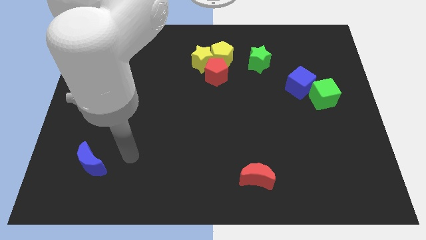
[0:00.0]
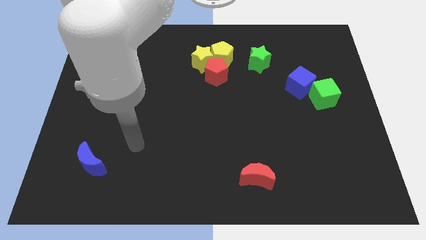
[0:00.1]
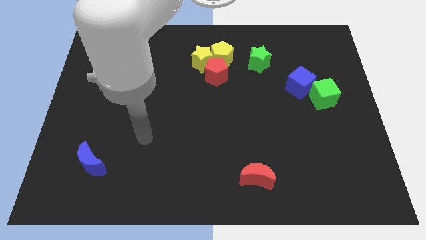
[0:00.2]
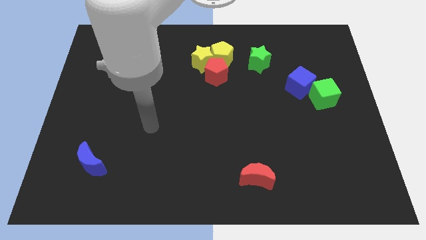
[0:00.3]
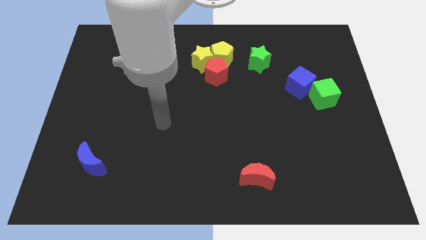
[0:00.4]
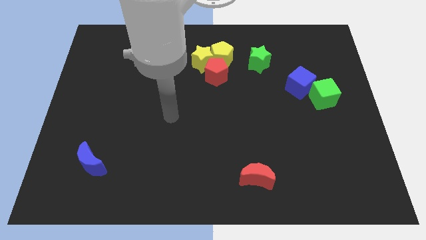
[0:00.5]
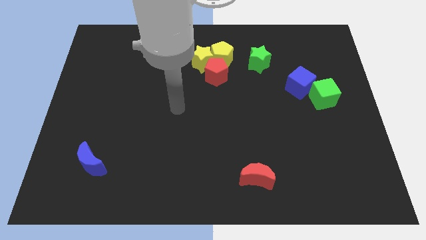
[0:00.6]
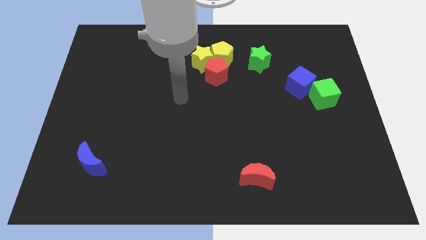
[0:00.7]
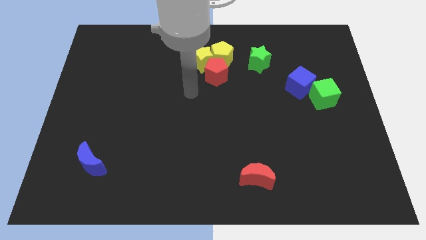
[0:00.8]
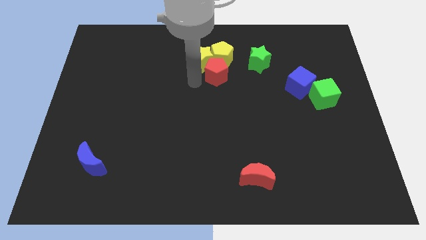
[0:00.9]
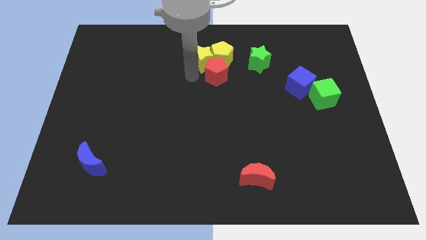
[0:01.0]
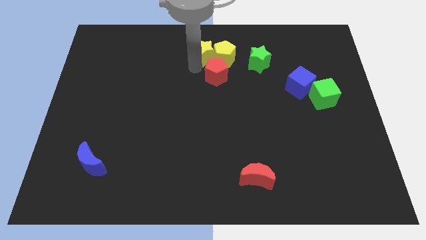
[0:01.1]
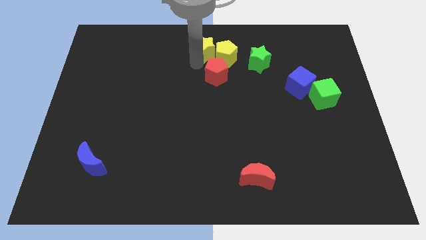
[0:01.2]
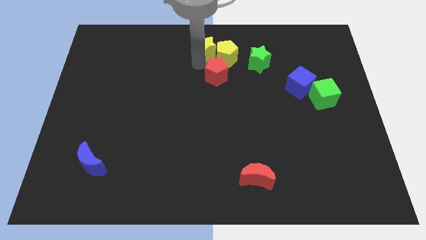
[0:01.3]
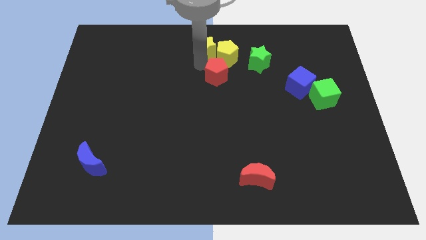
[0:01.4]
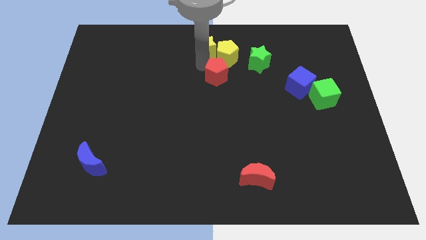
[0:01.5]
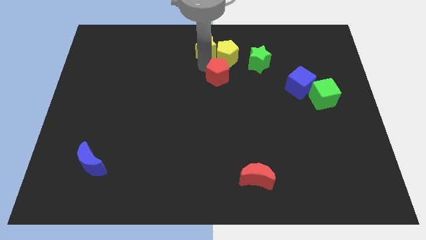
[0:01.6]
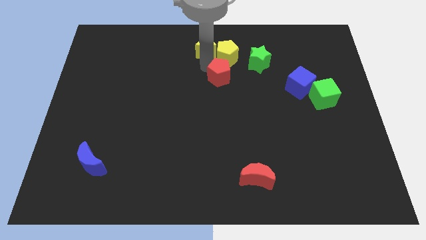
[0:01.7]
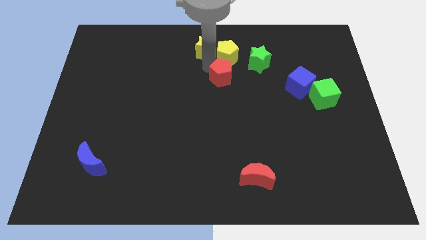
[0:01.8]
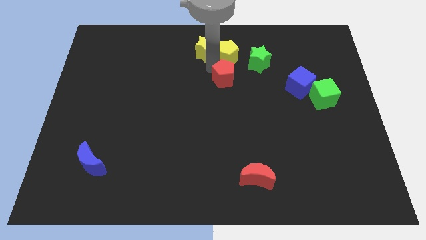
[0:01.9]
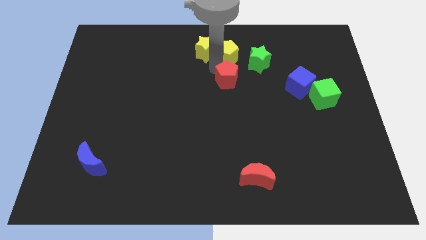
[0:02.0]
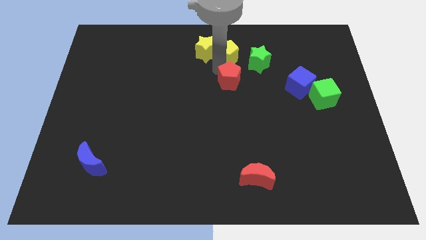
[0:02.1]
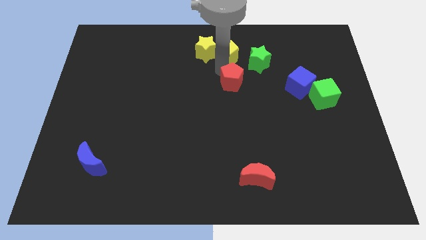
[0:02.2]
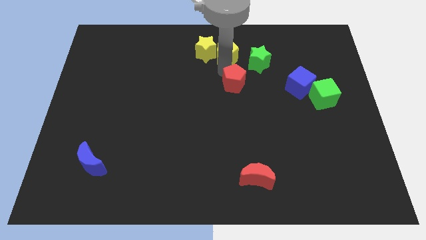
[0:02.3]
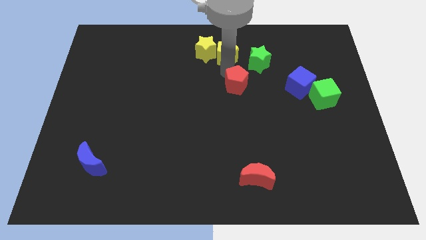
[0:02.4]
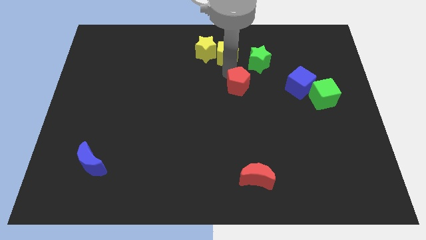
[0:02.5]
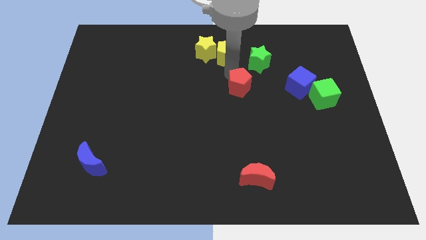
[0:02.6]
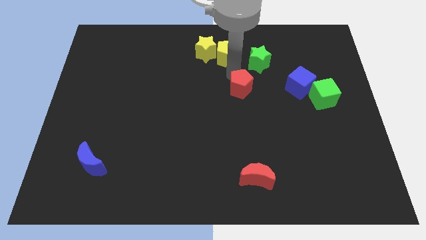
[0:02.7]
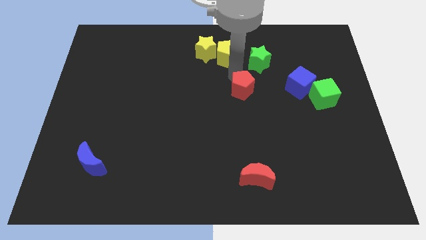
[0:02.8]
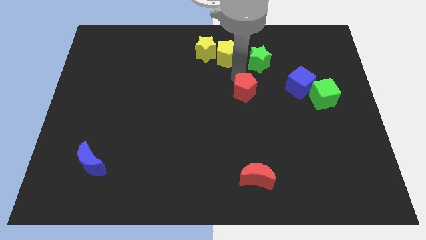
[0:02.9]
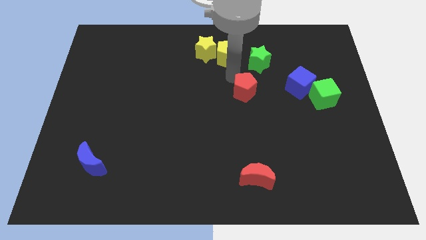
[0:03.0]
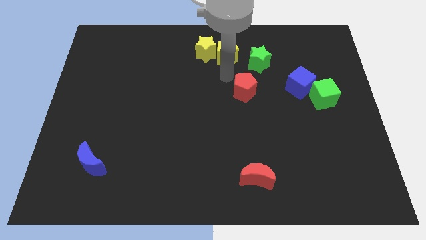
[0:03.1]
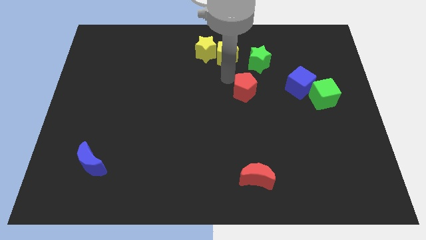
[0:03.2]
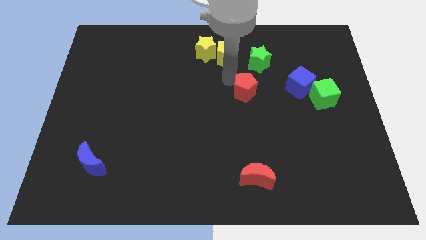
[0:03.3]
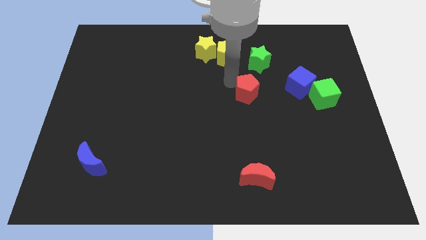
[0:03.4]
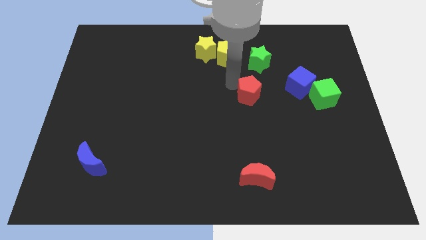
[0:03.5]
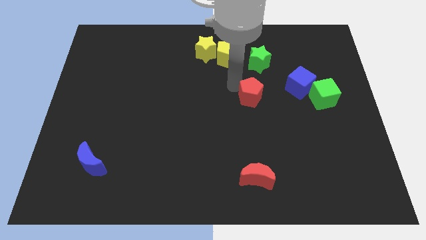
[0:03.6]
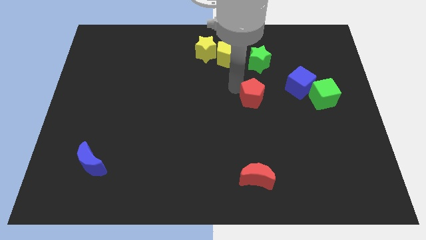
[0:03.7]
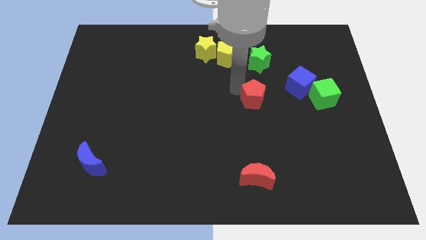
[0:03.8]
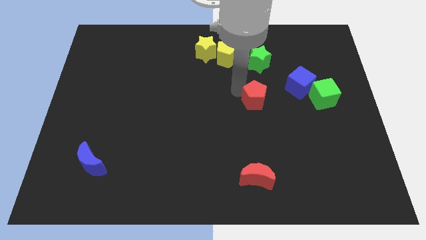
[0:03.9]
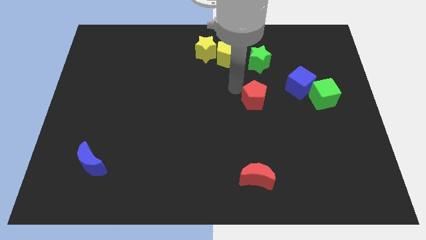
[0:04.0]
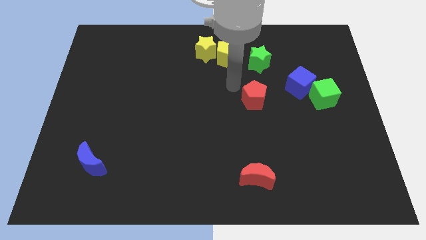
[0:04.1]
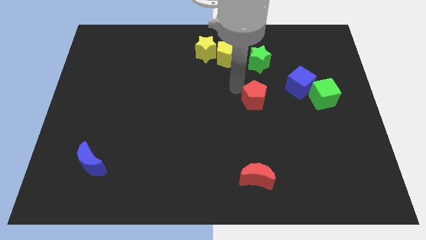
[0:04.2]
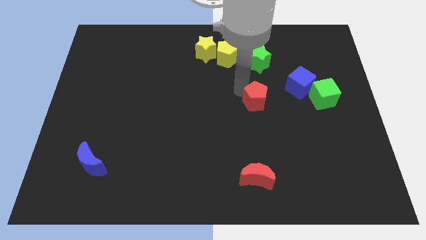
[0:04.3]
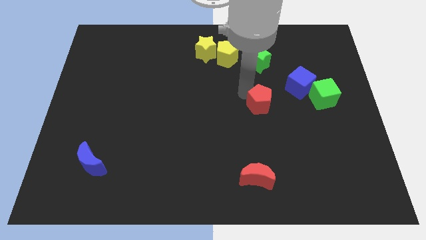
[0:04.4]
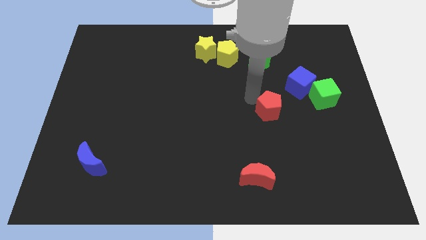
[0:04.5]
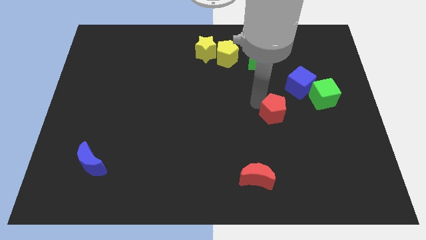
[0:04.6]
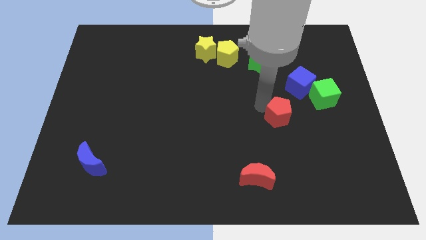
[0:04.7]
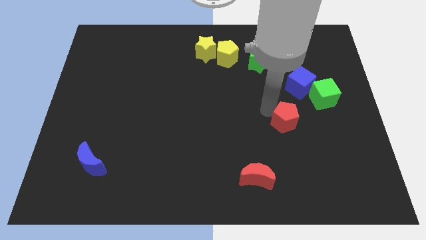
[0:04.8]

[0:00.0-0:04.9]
move the red pentagon below the blue cube

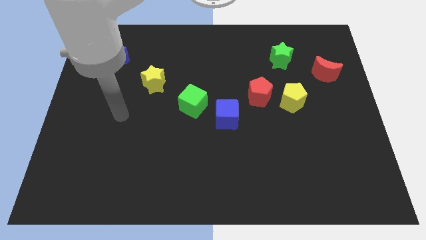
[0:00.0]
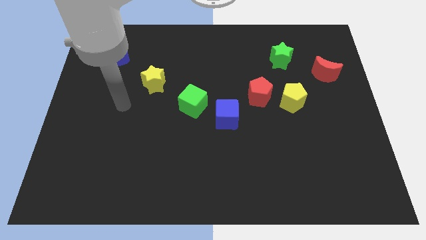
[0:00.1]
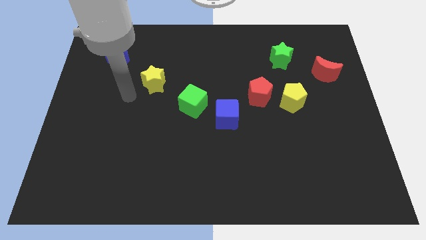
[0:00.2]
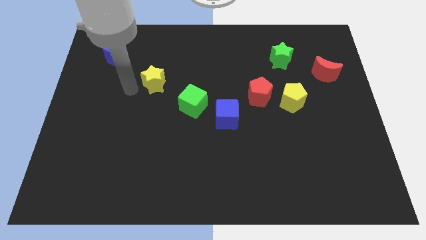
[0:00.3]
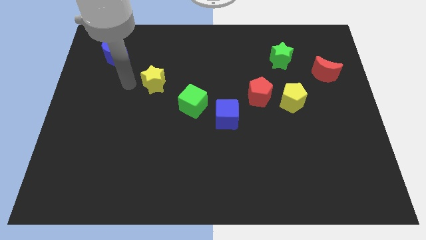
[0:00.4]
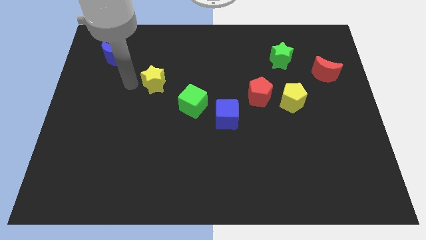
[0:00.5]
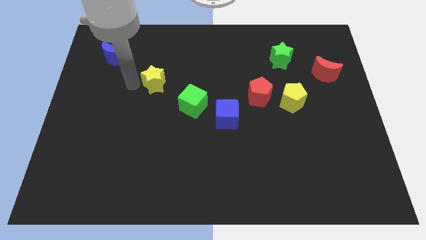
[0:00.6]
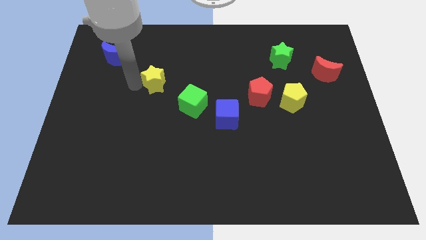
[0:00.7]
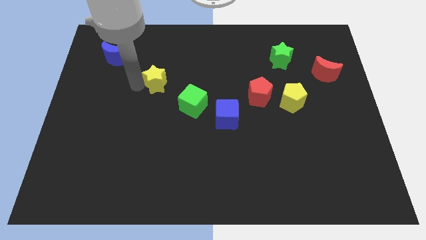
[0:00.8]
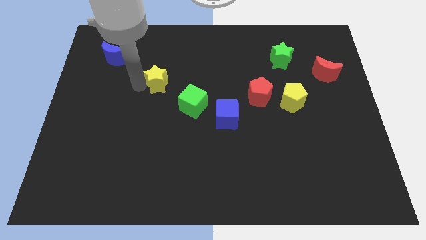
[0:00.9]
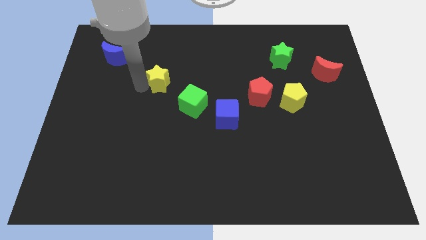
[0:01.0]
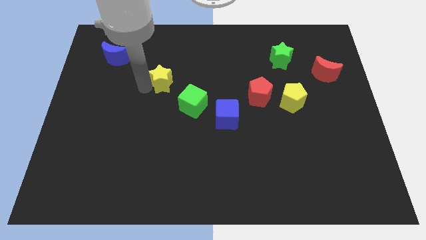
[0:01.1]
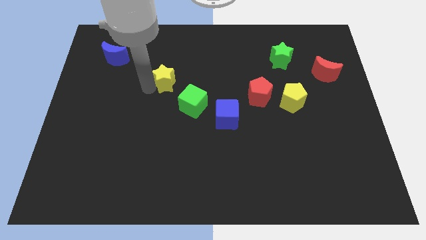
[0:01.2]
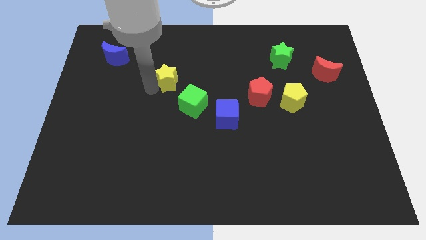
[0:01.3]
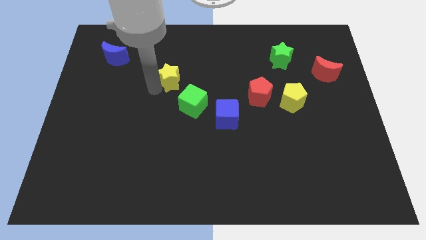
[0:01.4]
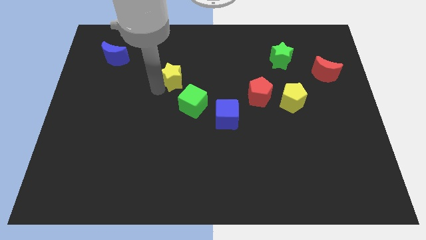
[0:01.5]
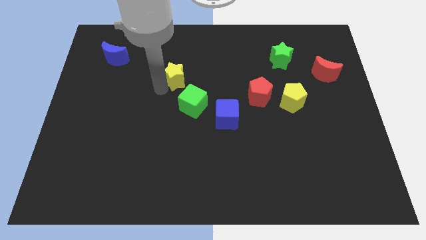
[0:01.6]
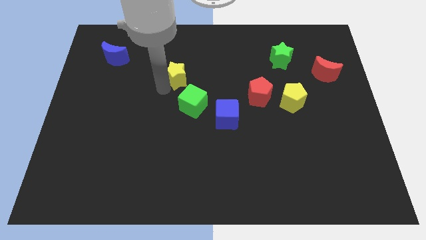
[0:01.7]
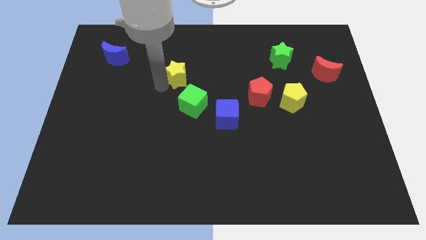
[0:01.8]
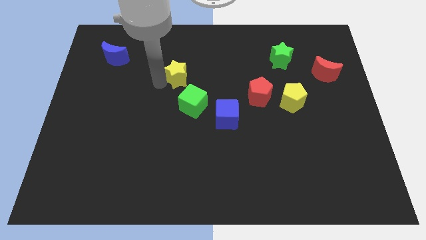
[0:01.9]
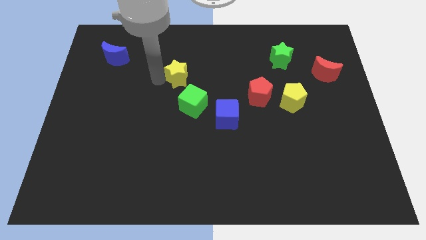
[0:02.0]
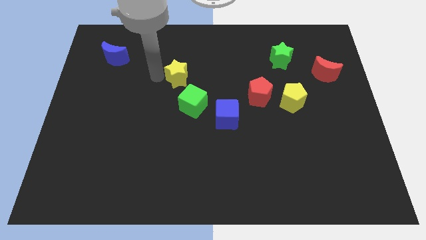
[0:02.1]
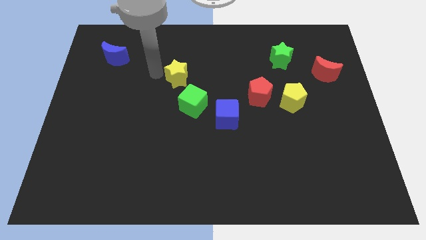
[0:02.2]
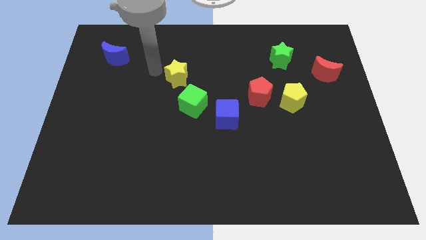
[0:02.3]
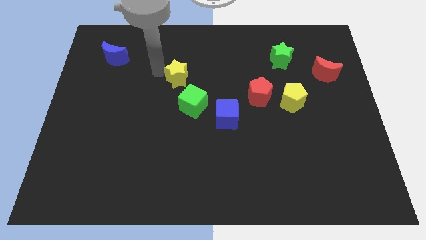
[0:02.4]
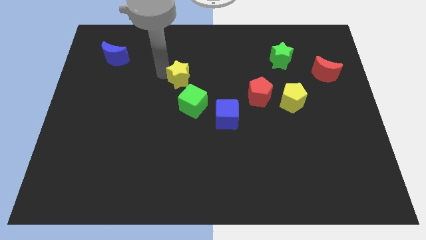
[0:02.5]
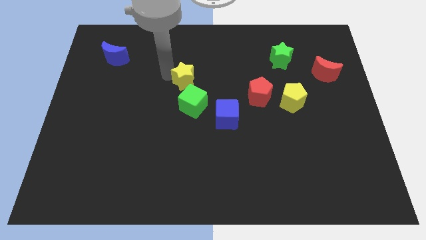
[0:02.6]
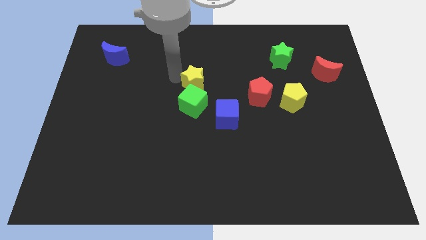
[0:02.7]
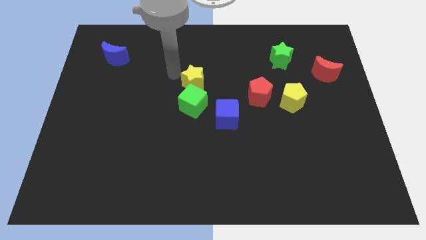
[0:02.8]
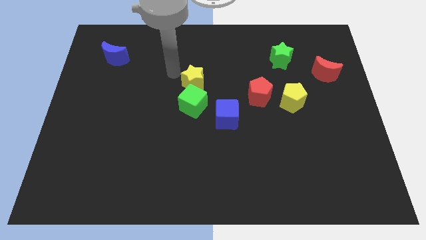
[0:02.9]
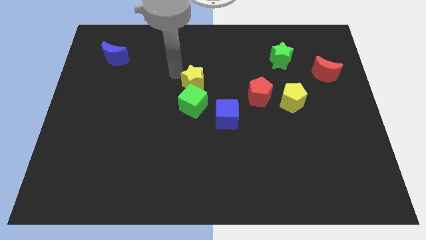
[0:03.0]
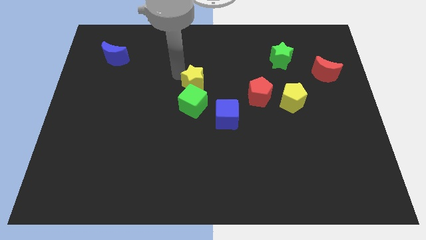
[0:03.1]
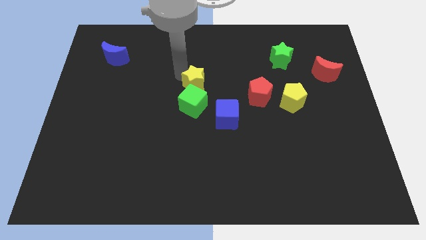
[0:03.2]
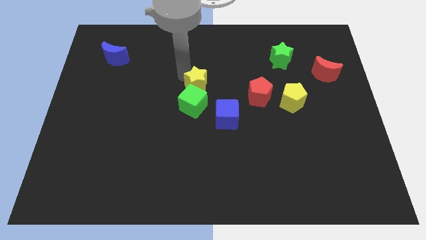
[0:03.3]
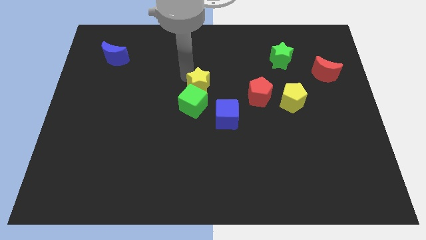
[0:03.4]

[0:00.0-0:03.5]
slide the yellow star left of the red pentagon
